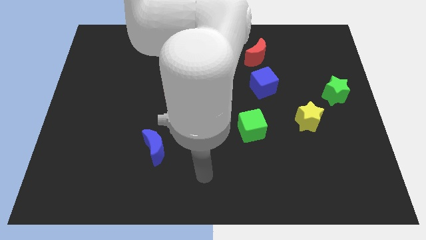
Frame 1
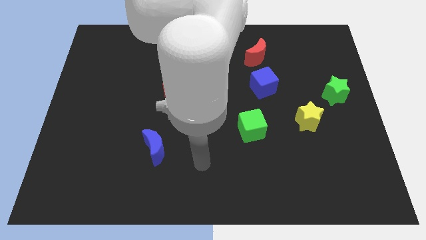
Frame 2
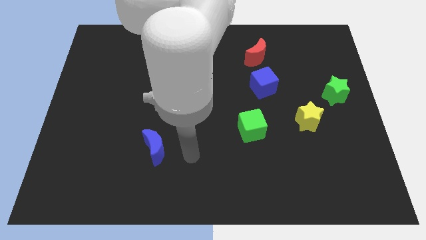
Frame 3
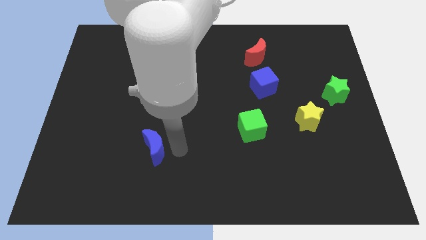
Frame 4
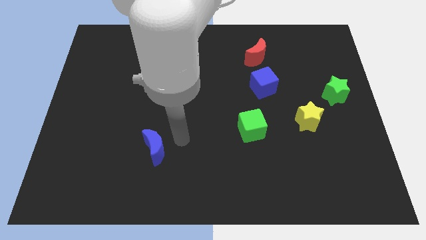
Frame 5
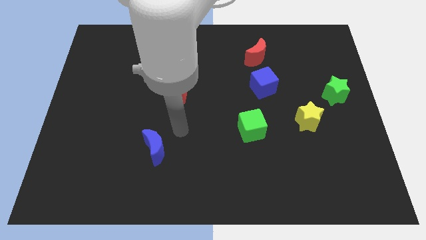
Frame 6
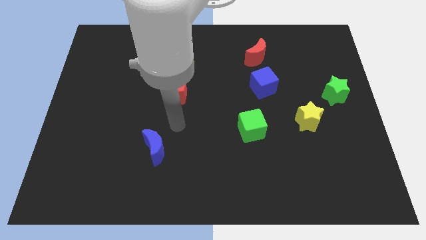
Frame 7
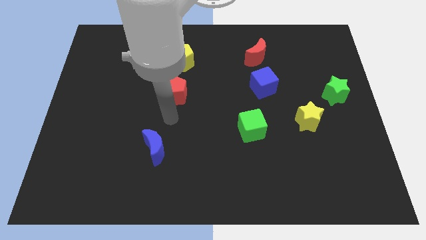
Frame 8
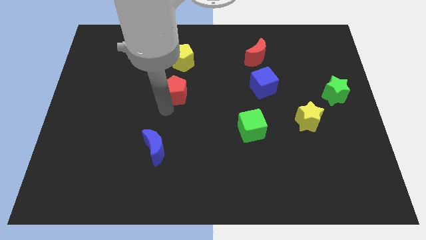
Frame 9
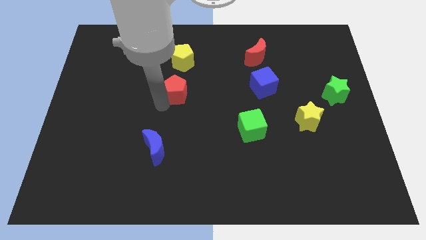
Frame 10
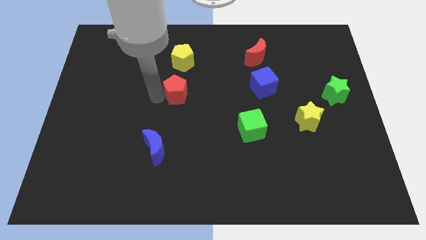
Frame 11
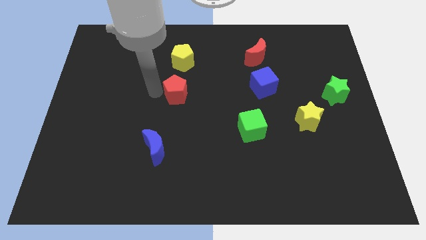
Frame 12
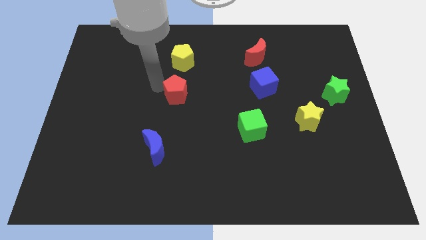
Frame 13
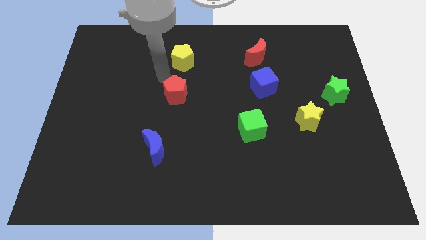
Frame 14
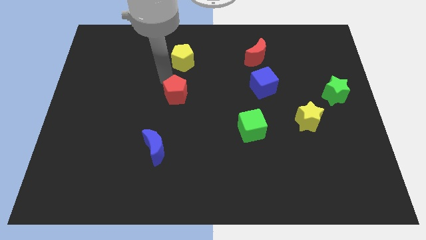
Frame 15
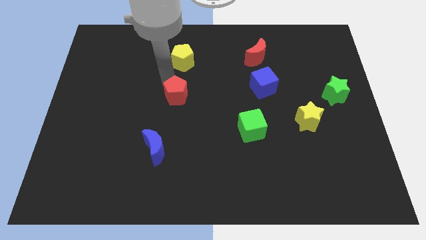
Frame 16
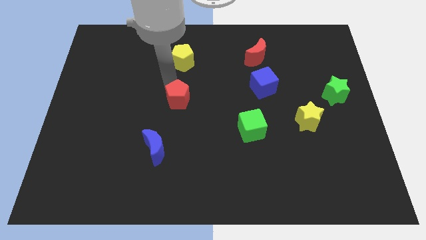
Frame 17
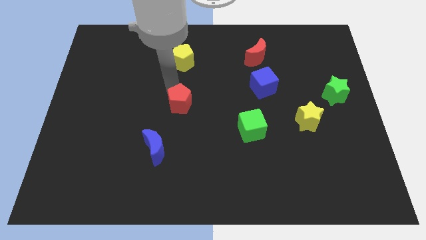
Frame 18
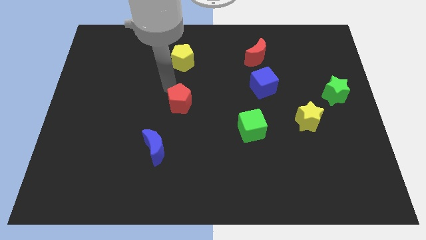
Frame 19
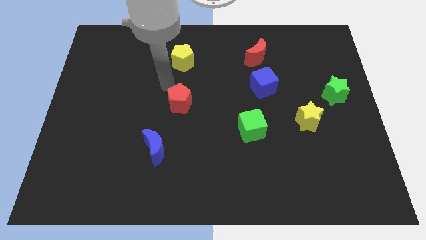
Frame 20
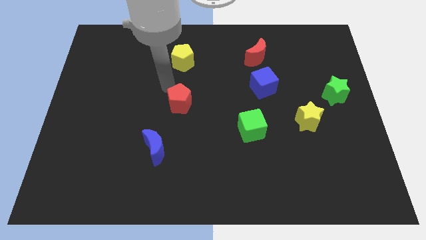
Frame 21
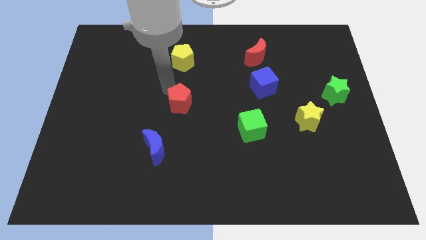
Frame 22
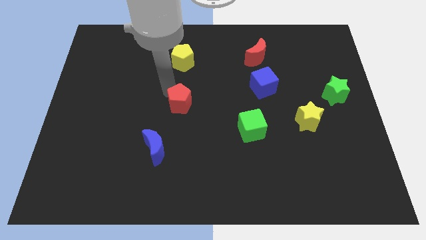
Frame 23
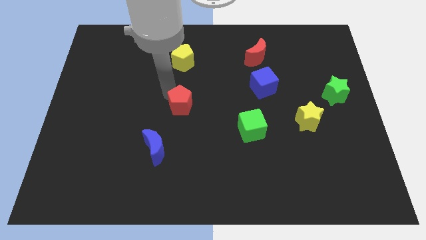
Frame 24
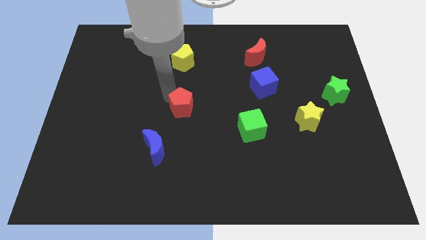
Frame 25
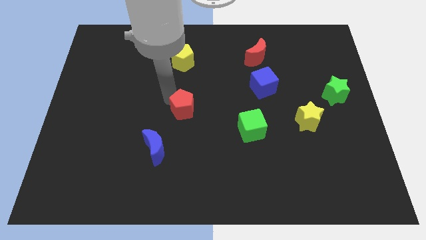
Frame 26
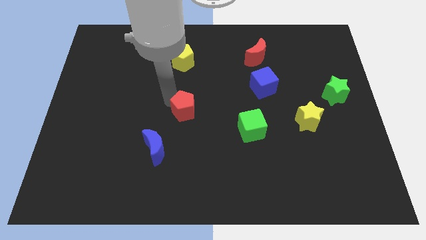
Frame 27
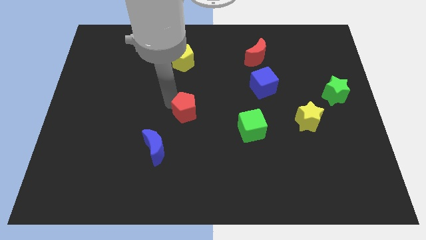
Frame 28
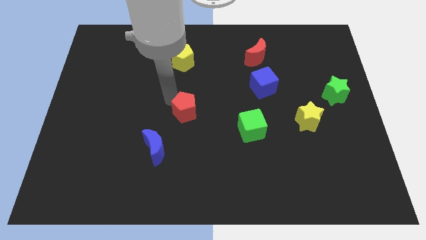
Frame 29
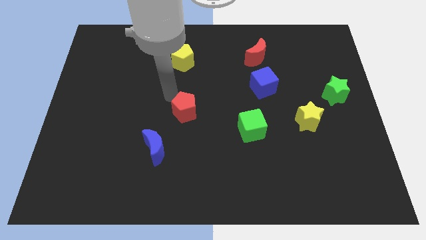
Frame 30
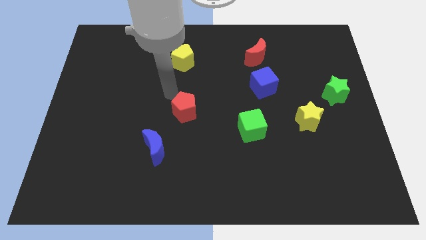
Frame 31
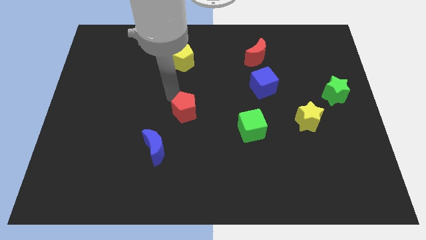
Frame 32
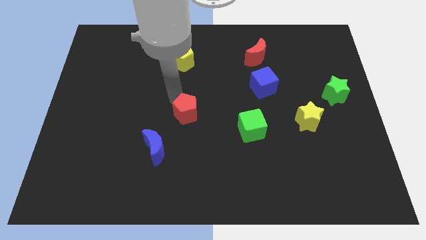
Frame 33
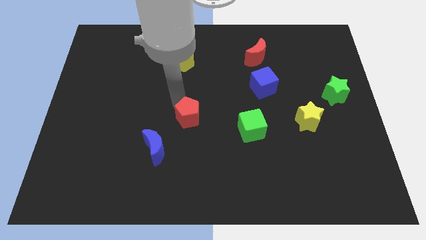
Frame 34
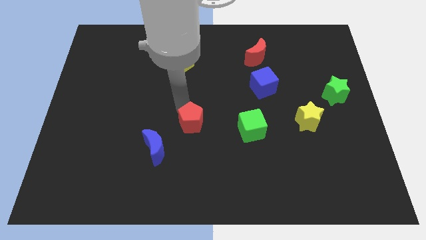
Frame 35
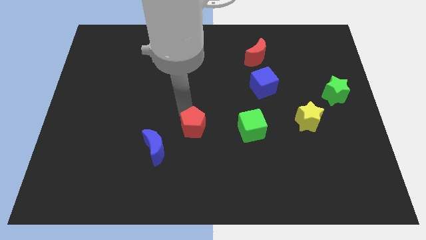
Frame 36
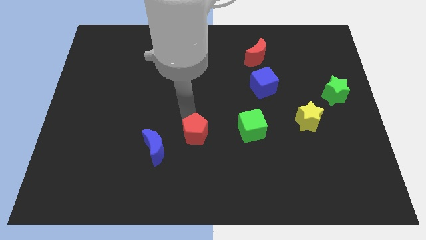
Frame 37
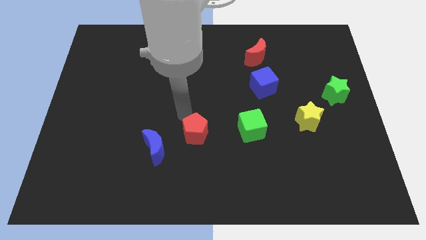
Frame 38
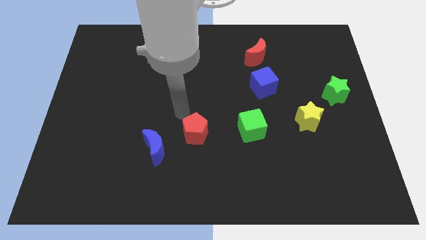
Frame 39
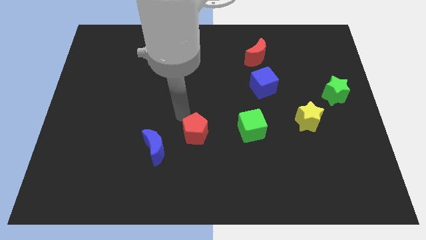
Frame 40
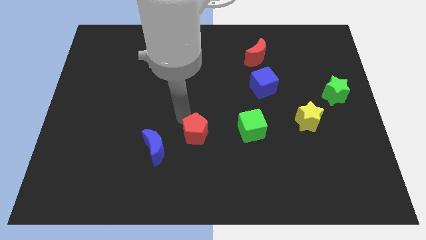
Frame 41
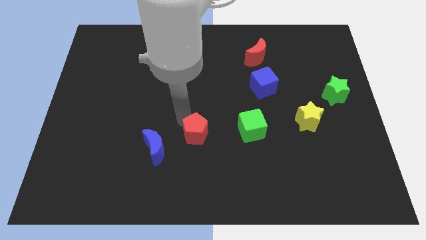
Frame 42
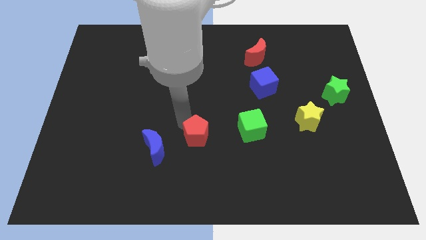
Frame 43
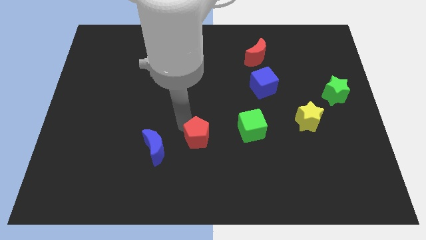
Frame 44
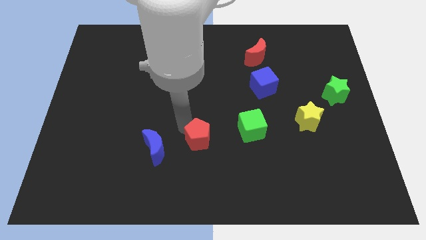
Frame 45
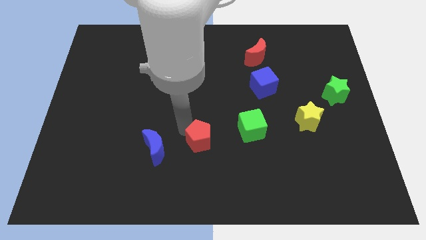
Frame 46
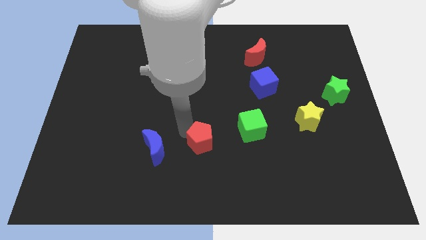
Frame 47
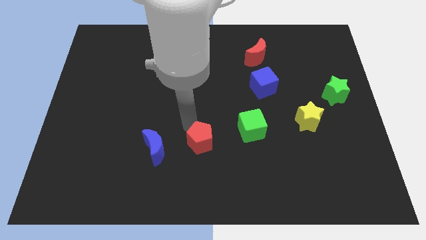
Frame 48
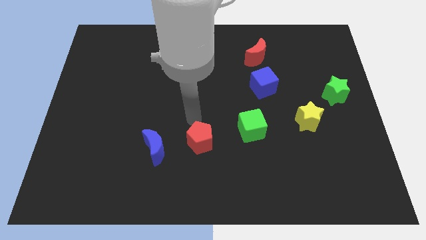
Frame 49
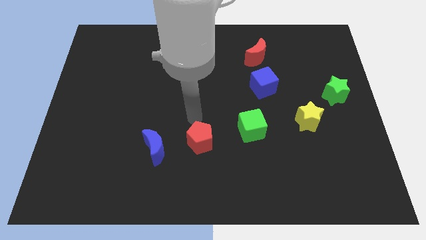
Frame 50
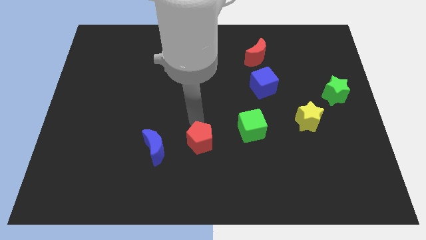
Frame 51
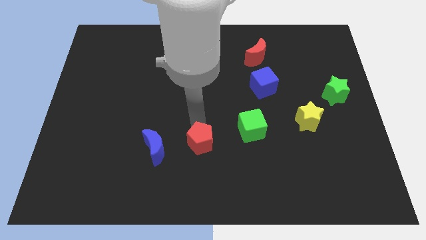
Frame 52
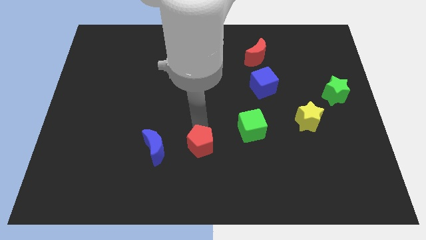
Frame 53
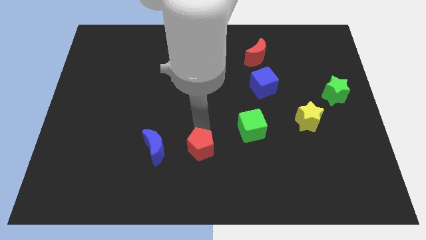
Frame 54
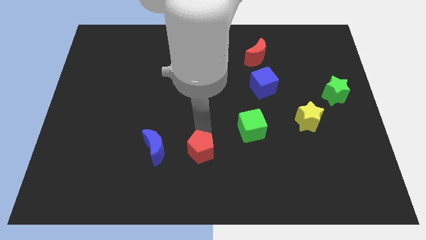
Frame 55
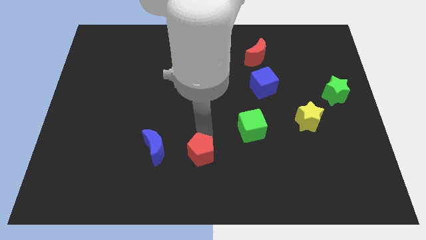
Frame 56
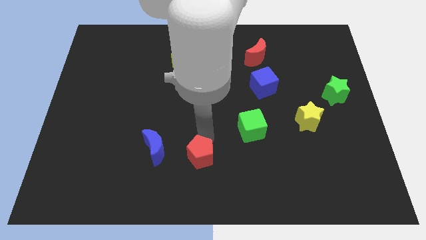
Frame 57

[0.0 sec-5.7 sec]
move the red pentagon to the bottom
